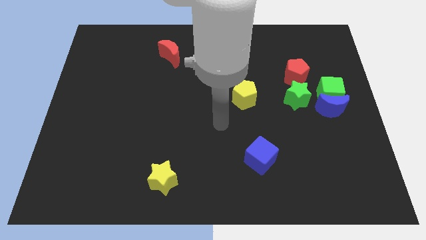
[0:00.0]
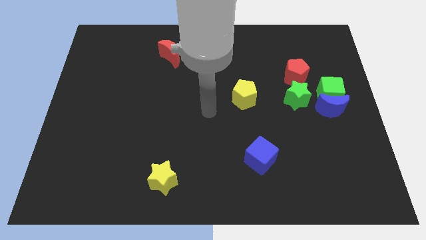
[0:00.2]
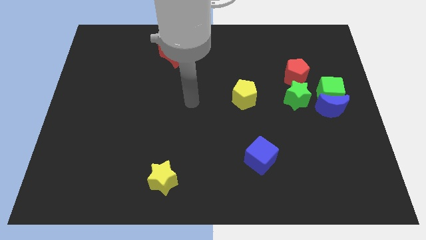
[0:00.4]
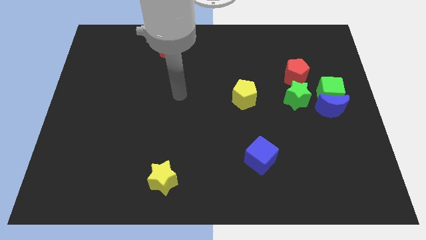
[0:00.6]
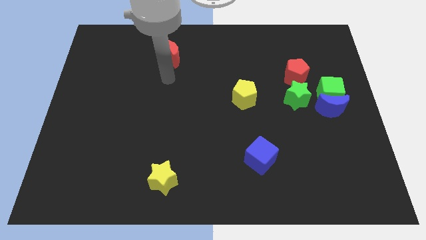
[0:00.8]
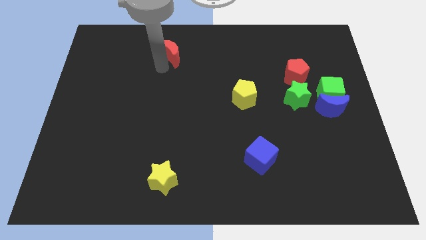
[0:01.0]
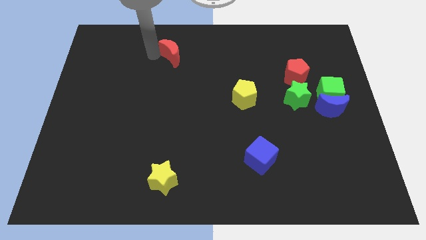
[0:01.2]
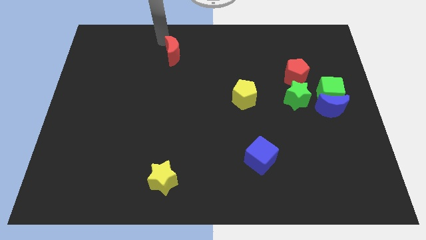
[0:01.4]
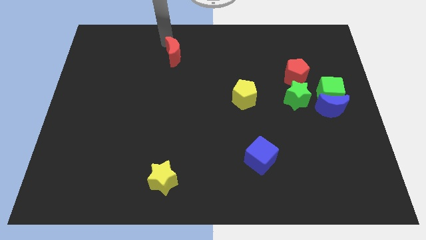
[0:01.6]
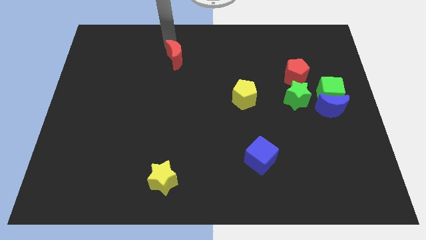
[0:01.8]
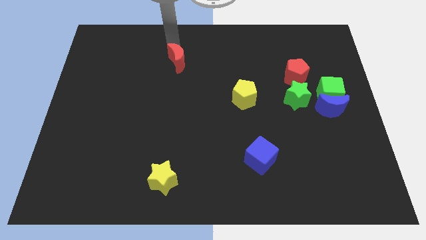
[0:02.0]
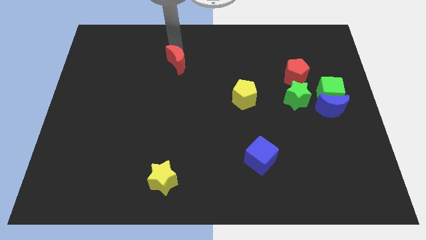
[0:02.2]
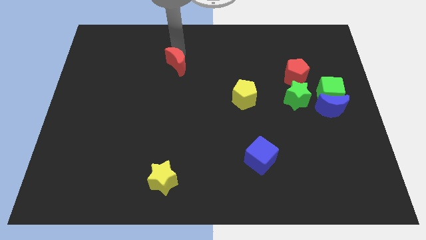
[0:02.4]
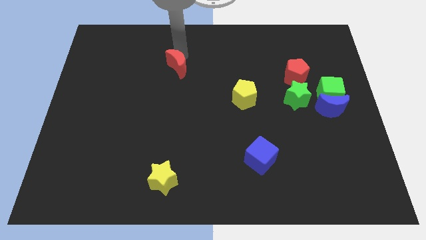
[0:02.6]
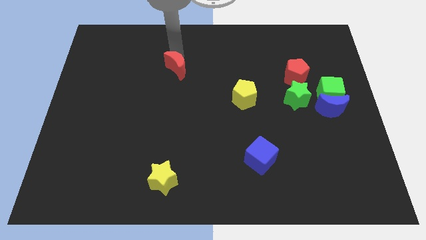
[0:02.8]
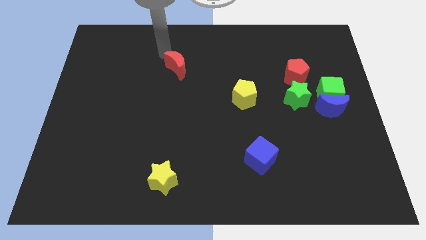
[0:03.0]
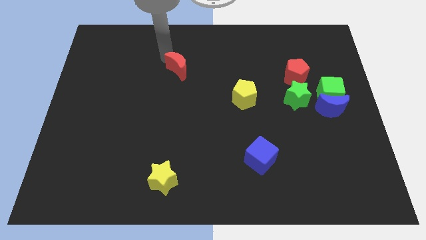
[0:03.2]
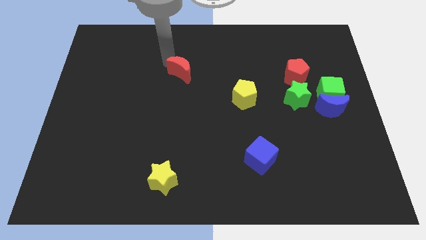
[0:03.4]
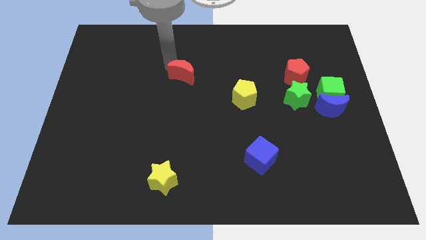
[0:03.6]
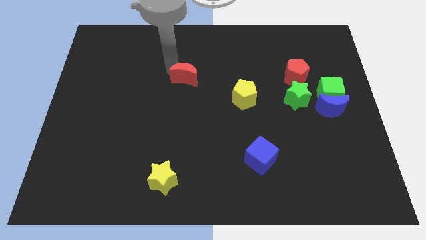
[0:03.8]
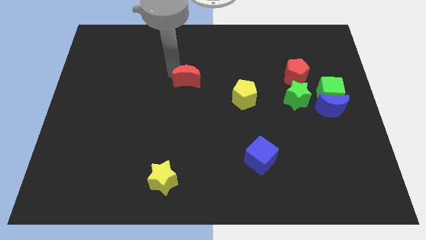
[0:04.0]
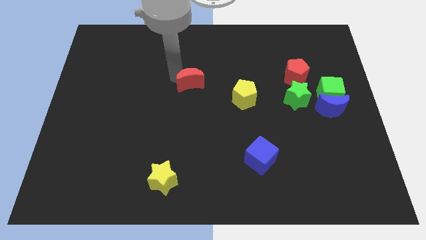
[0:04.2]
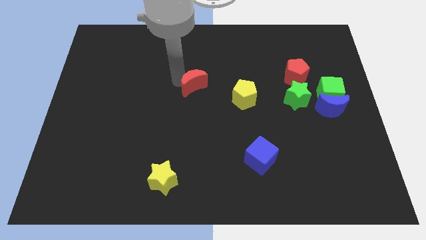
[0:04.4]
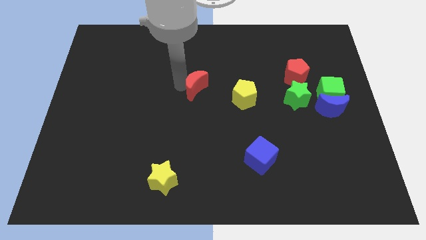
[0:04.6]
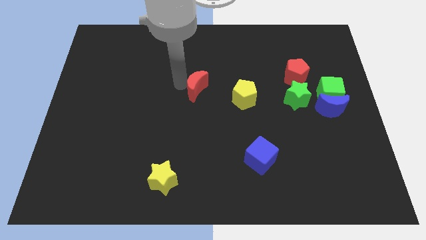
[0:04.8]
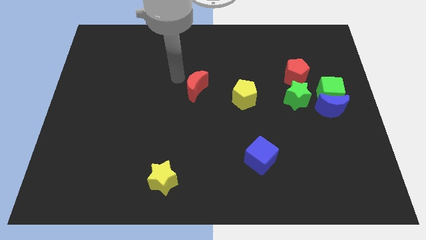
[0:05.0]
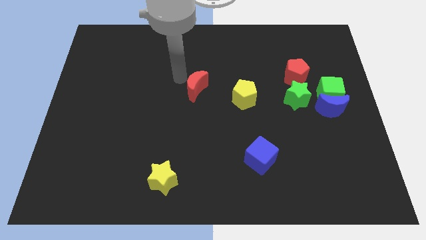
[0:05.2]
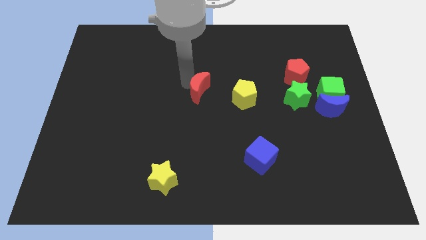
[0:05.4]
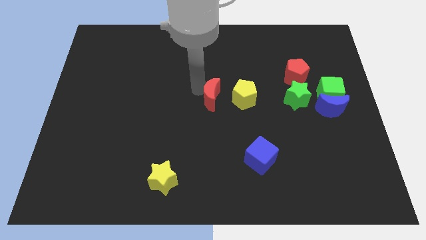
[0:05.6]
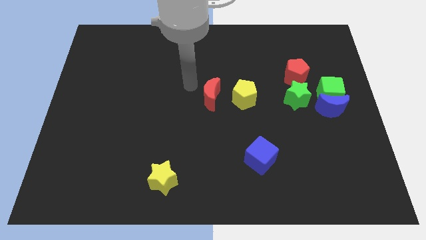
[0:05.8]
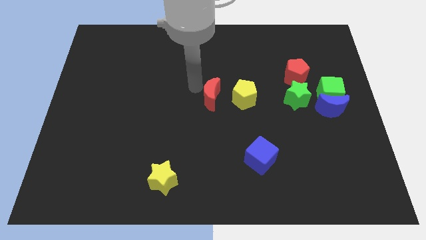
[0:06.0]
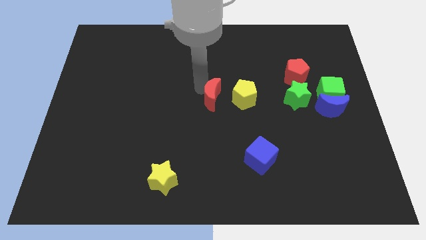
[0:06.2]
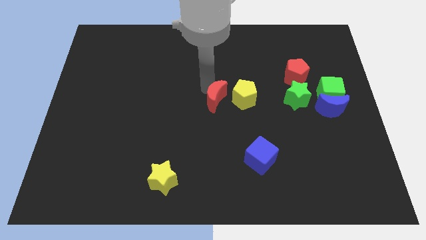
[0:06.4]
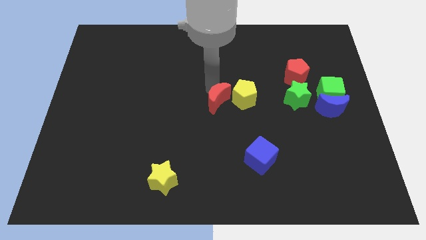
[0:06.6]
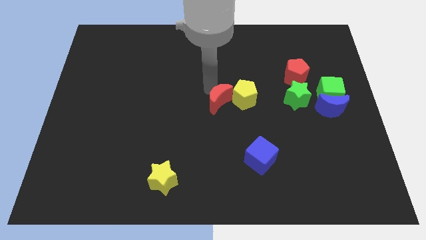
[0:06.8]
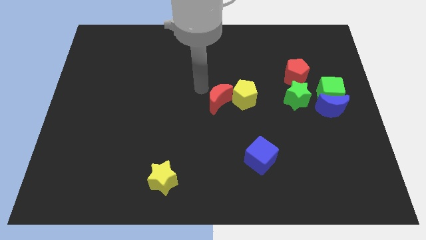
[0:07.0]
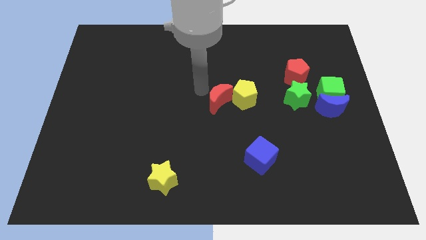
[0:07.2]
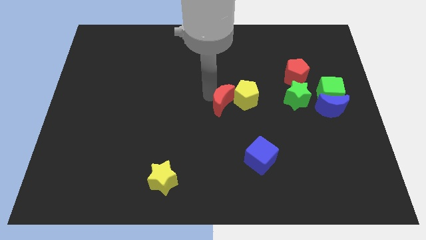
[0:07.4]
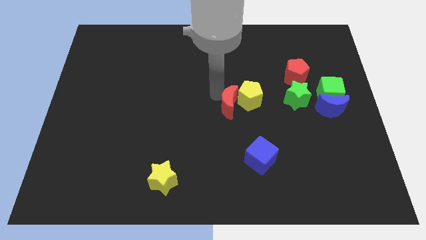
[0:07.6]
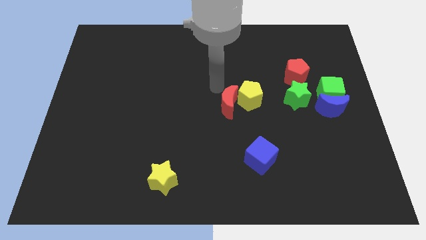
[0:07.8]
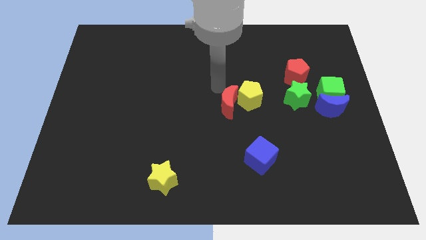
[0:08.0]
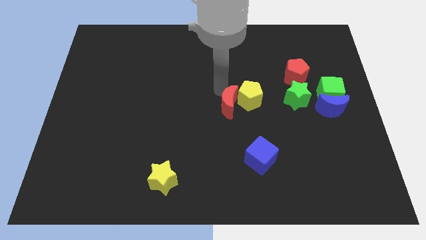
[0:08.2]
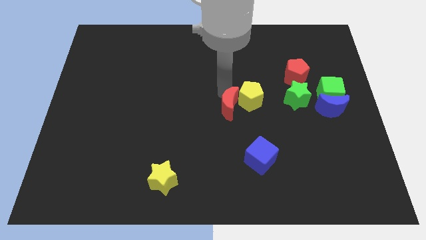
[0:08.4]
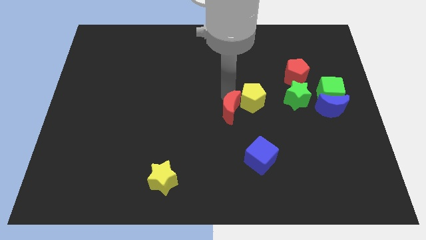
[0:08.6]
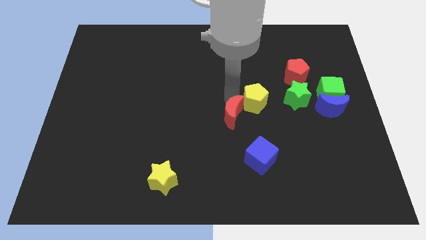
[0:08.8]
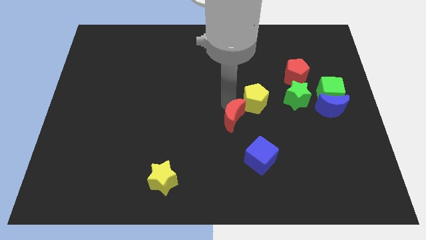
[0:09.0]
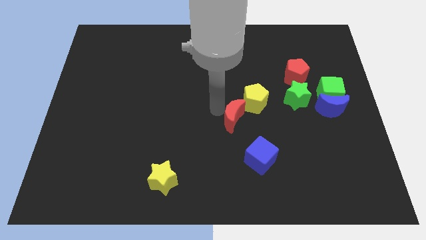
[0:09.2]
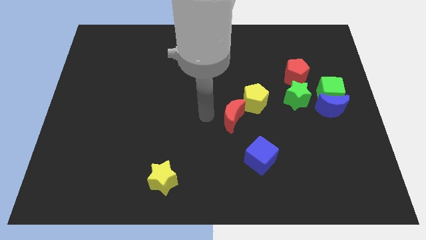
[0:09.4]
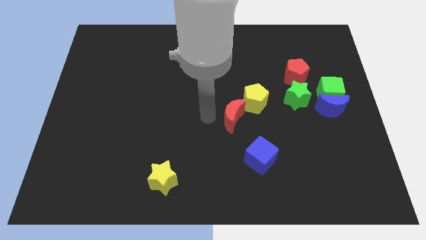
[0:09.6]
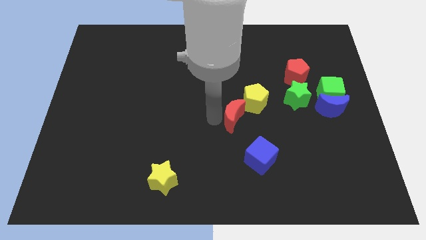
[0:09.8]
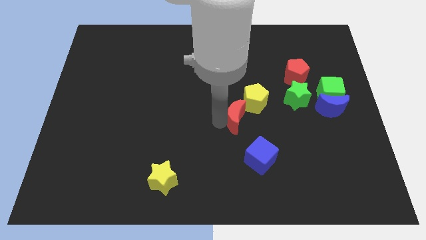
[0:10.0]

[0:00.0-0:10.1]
move the red moon to the top side of the blue cube

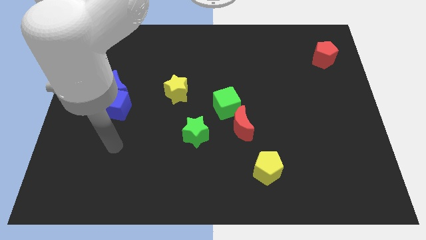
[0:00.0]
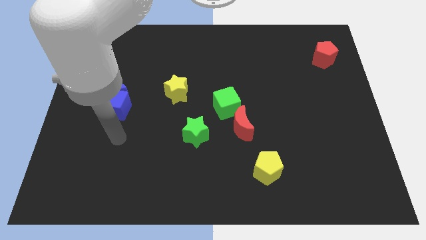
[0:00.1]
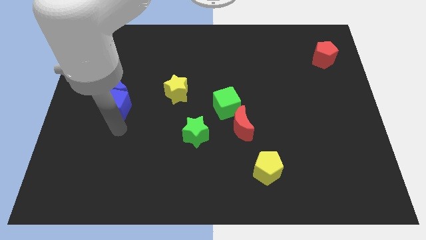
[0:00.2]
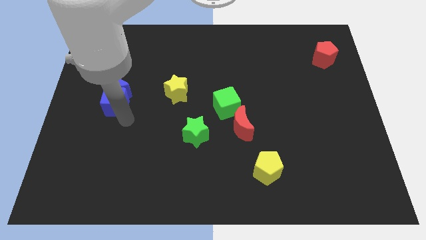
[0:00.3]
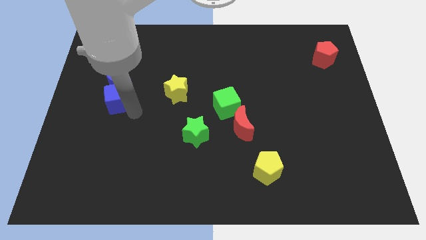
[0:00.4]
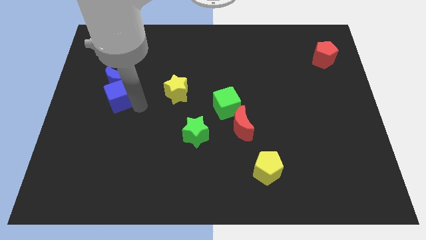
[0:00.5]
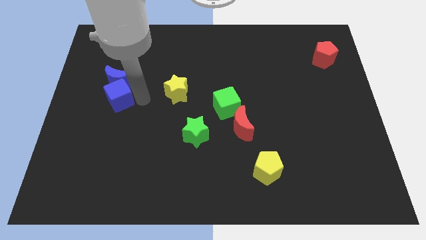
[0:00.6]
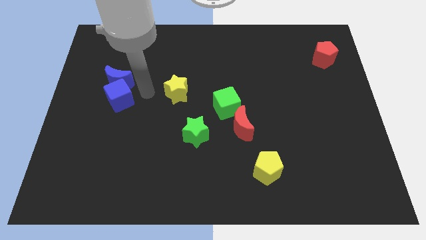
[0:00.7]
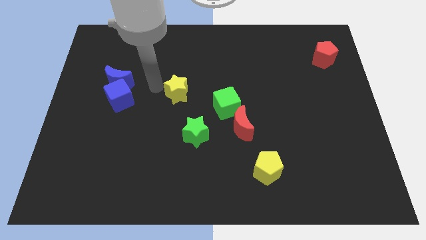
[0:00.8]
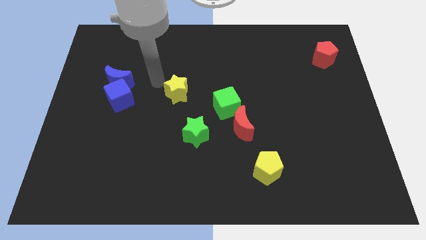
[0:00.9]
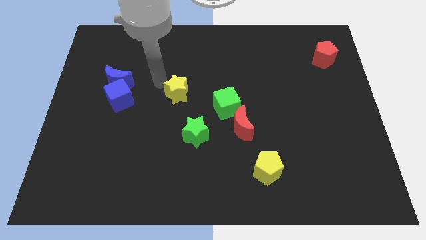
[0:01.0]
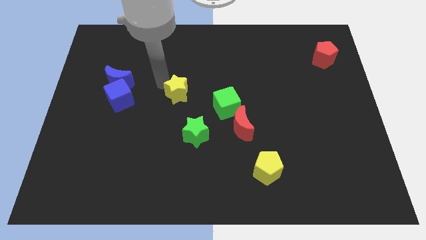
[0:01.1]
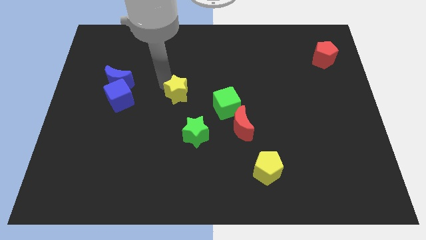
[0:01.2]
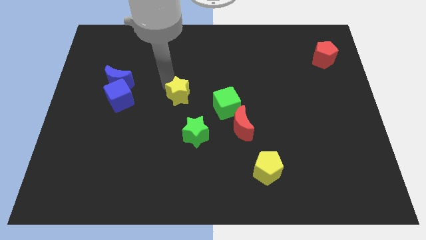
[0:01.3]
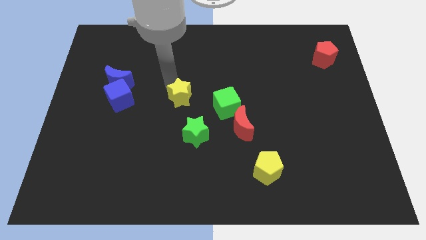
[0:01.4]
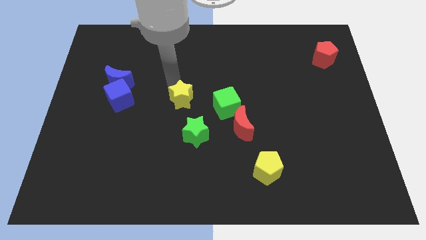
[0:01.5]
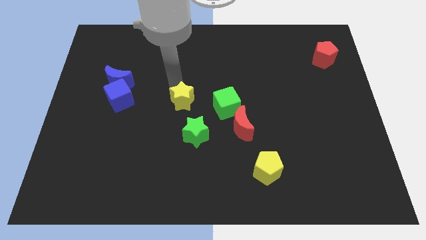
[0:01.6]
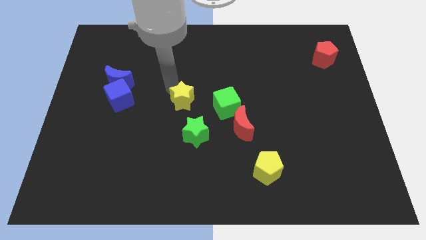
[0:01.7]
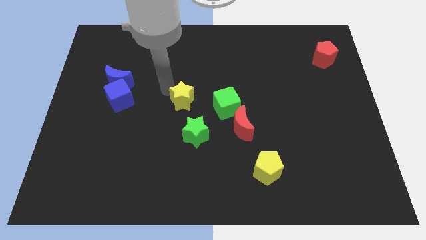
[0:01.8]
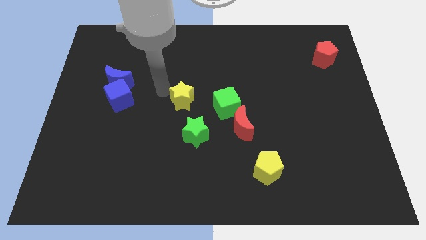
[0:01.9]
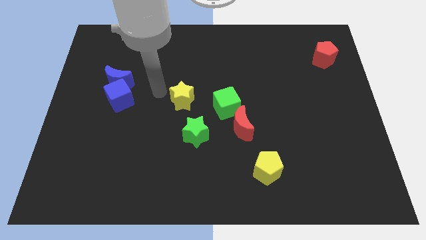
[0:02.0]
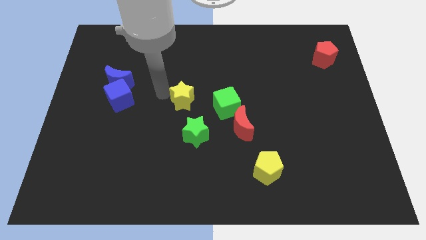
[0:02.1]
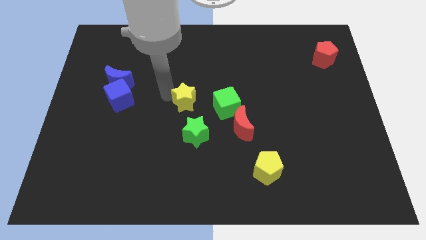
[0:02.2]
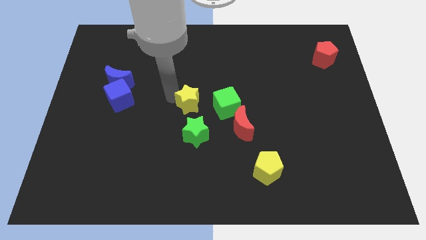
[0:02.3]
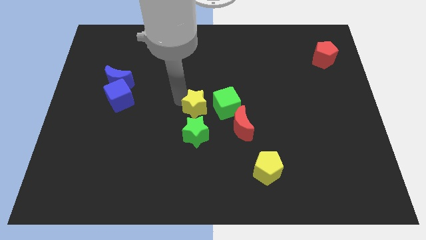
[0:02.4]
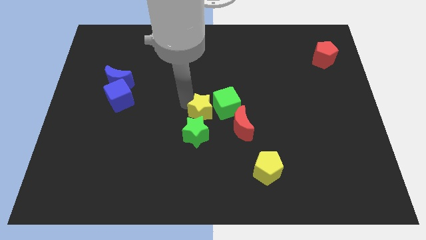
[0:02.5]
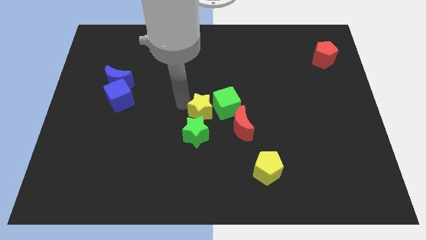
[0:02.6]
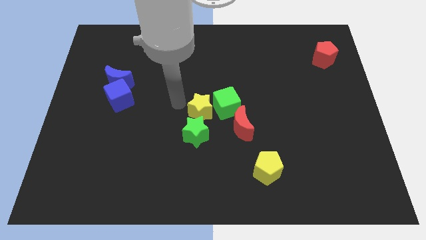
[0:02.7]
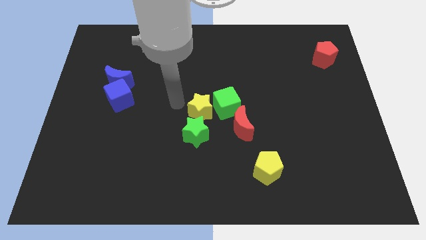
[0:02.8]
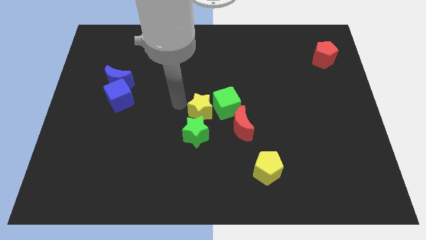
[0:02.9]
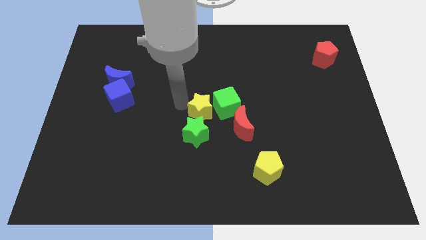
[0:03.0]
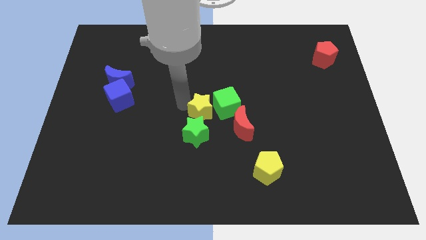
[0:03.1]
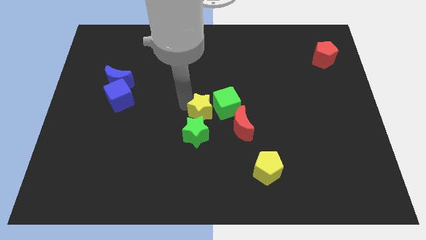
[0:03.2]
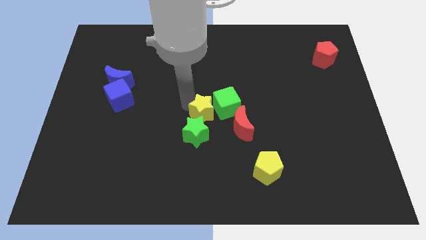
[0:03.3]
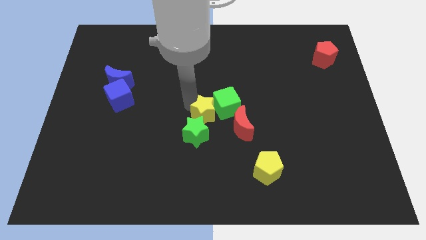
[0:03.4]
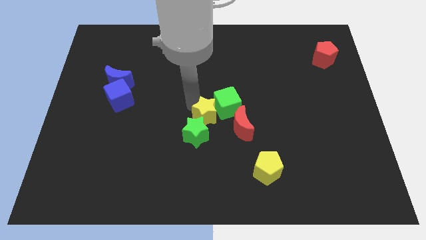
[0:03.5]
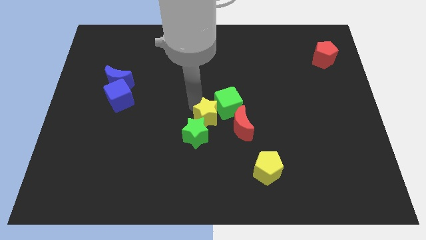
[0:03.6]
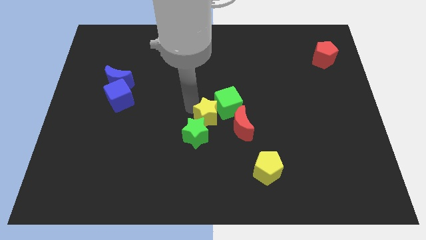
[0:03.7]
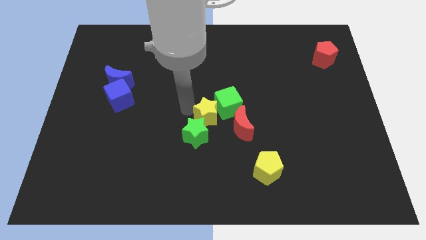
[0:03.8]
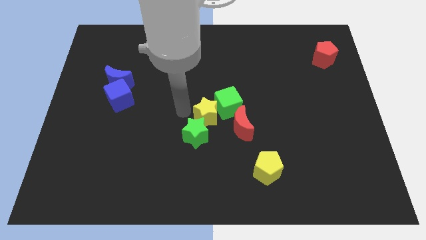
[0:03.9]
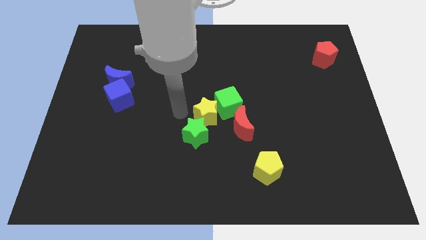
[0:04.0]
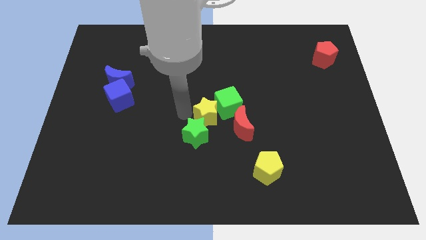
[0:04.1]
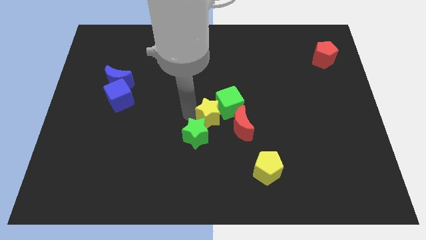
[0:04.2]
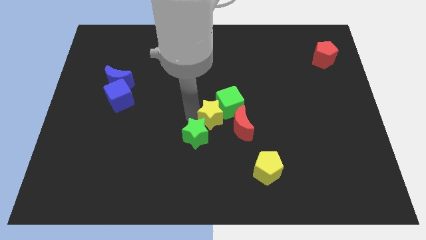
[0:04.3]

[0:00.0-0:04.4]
put the yellow star to the bottom of the green cube
